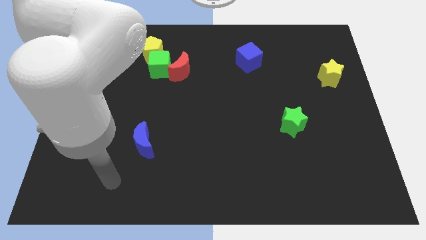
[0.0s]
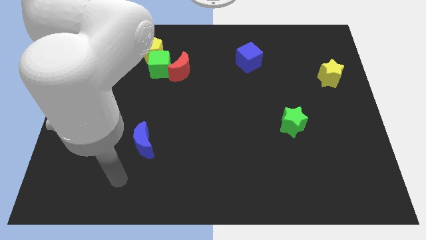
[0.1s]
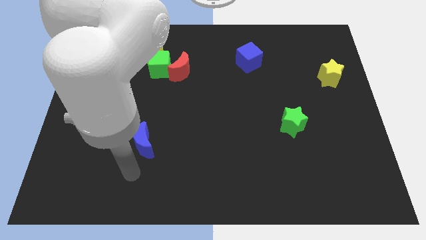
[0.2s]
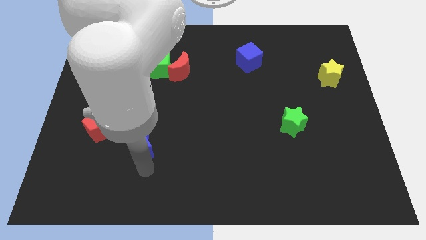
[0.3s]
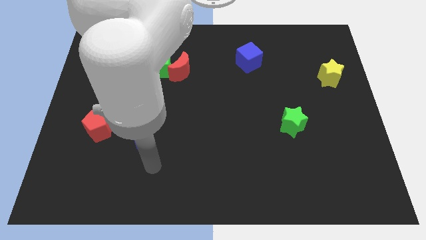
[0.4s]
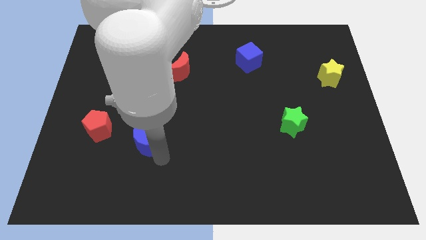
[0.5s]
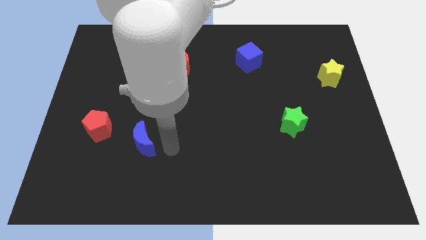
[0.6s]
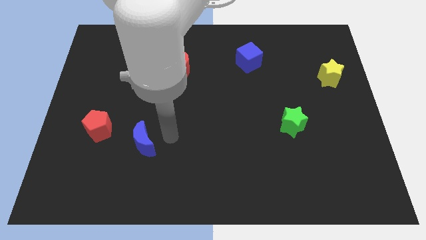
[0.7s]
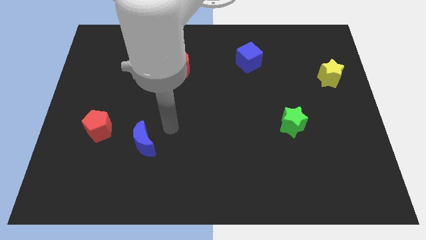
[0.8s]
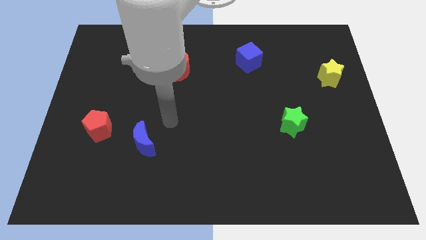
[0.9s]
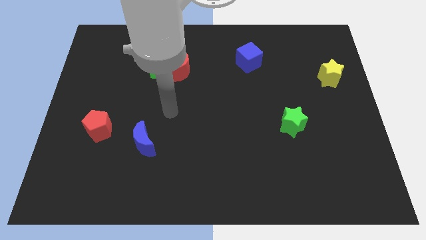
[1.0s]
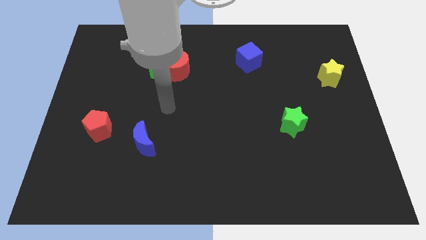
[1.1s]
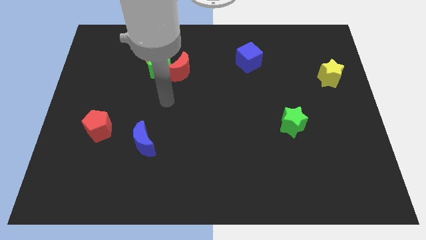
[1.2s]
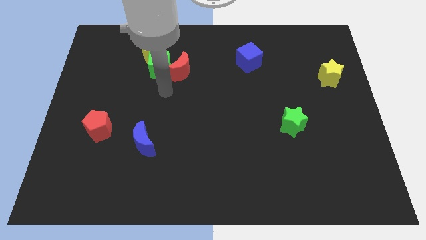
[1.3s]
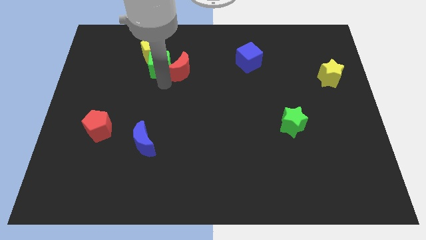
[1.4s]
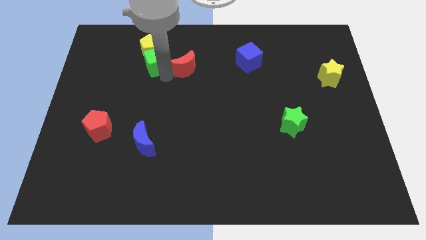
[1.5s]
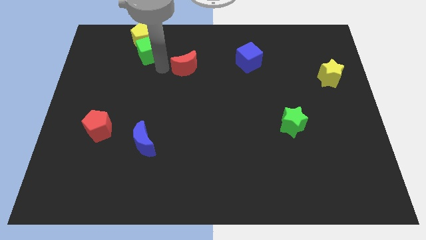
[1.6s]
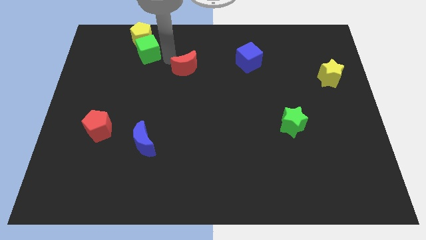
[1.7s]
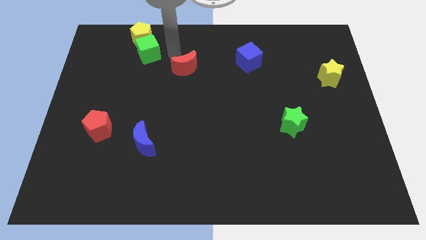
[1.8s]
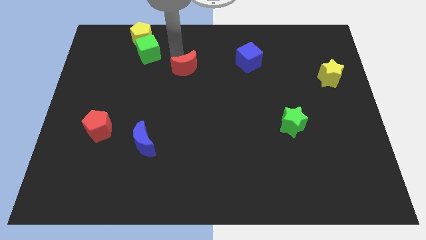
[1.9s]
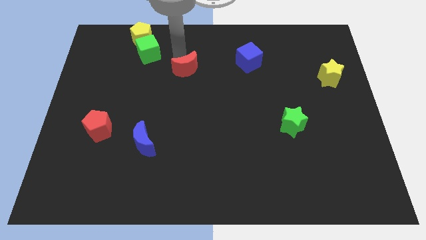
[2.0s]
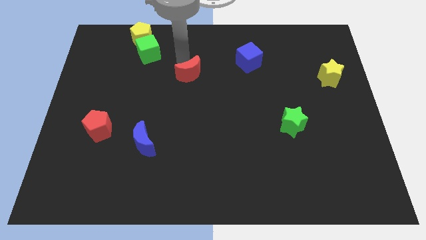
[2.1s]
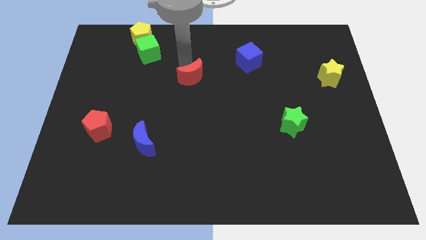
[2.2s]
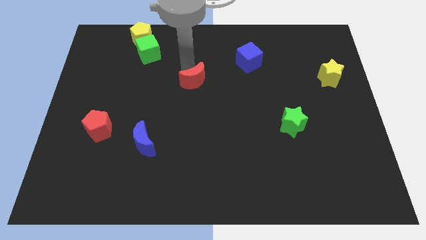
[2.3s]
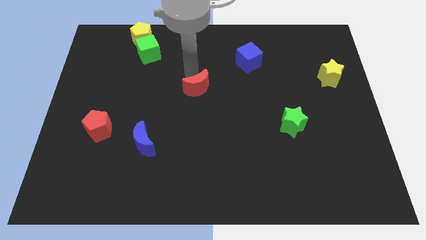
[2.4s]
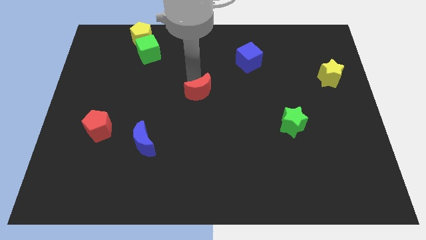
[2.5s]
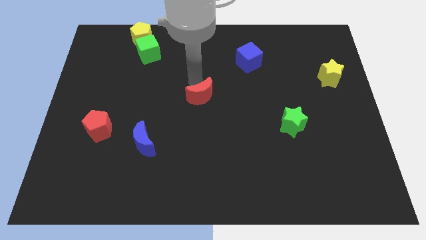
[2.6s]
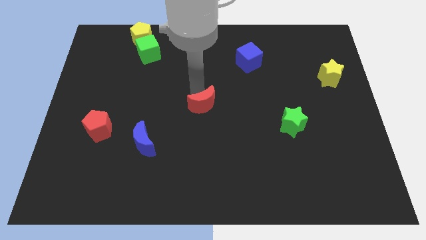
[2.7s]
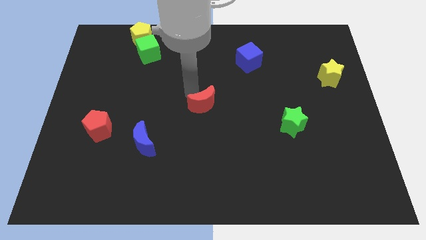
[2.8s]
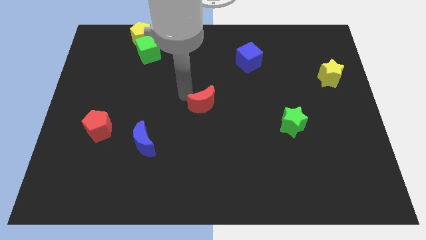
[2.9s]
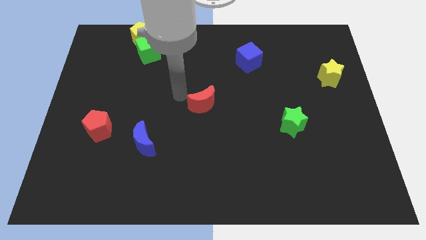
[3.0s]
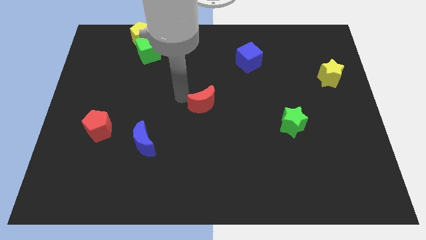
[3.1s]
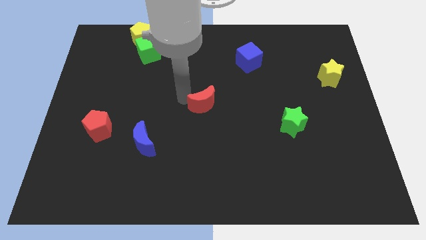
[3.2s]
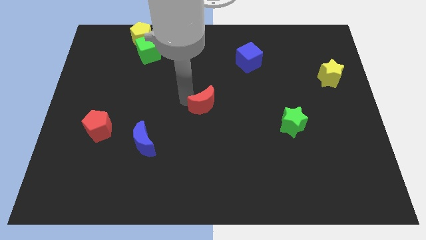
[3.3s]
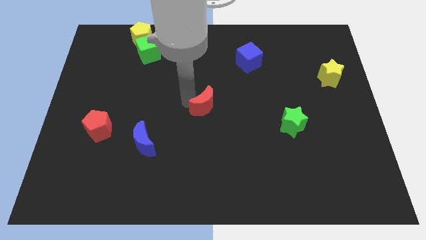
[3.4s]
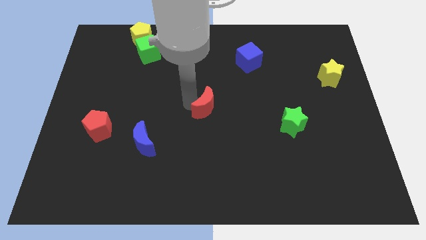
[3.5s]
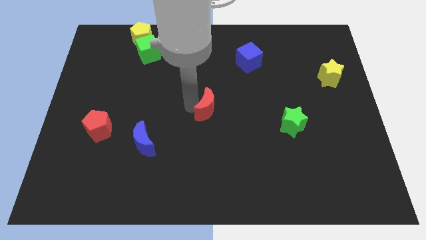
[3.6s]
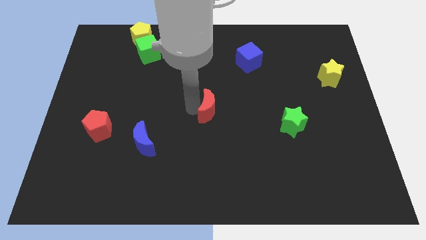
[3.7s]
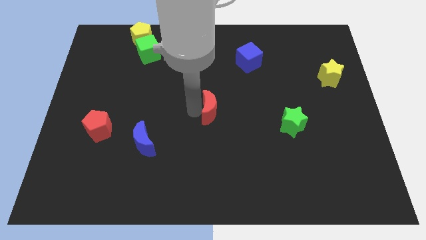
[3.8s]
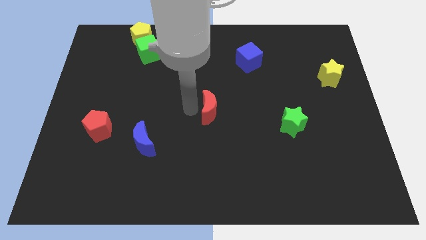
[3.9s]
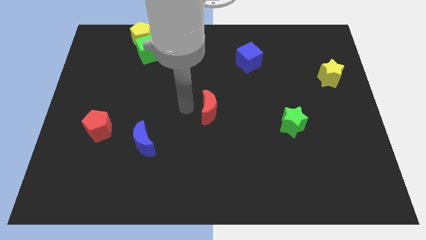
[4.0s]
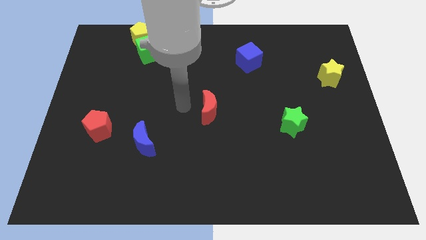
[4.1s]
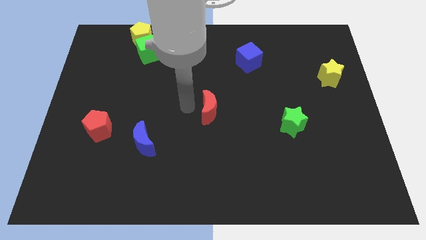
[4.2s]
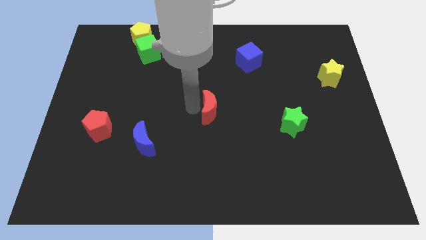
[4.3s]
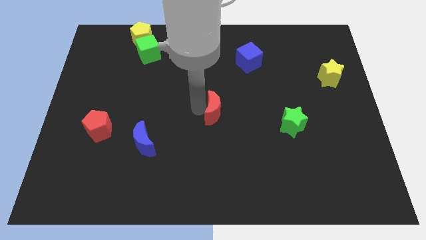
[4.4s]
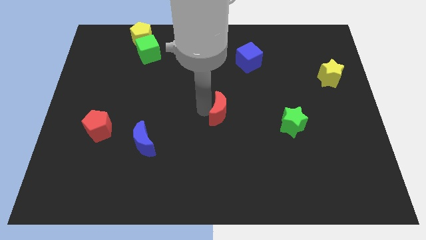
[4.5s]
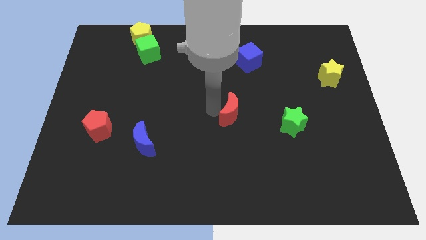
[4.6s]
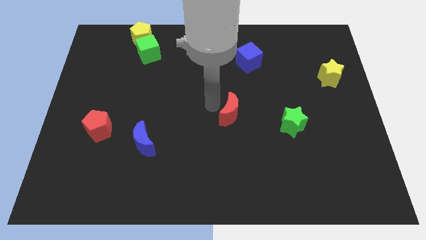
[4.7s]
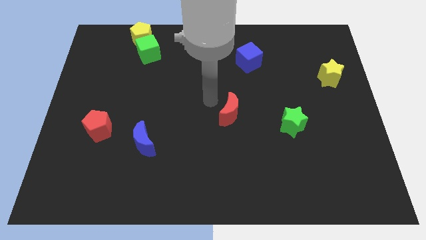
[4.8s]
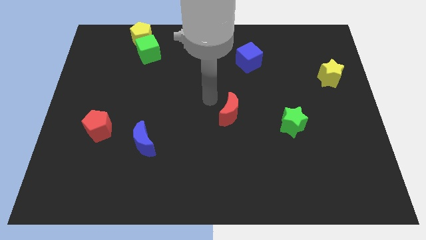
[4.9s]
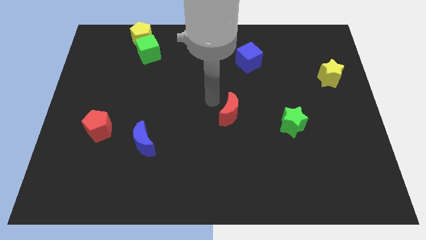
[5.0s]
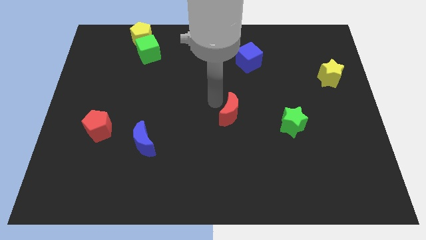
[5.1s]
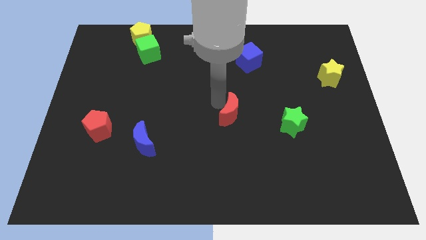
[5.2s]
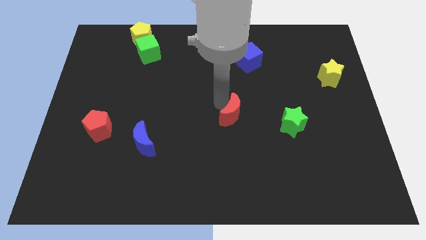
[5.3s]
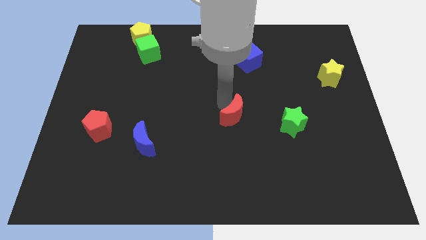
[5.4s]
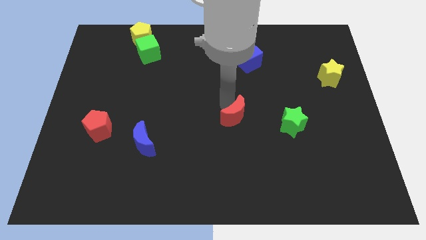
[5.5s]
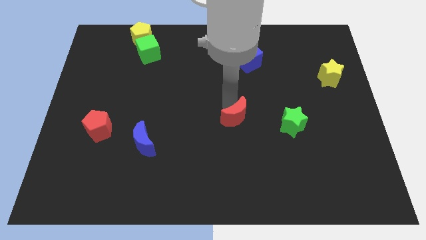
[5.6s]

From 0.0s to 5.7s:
slide the red moon downwards and right

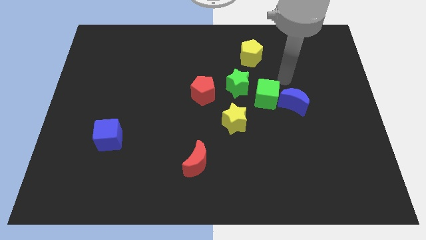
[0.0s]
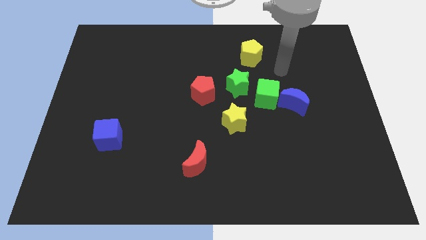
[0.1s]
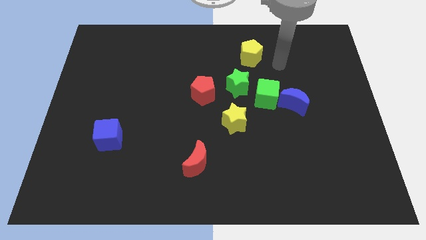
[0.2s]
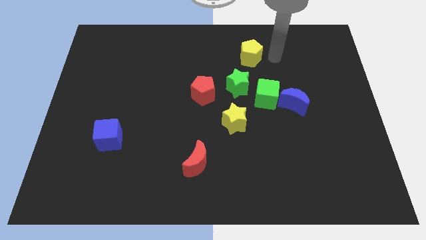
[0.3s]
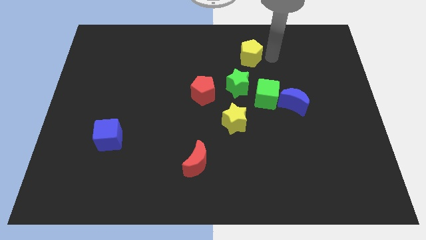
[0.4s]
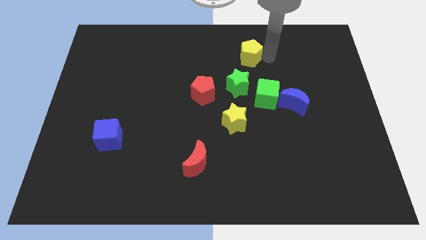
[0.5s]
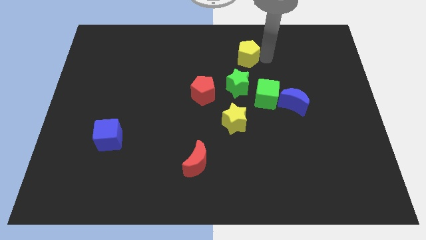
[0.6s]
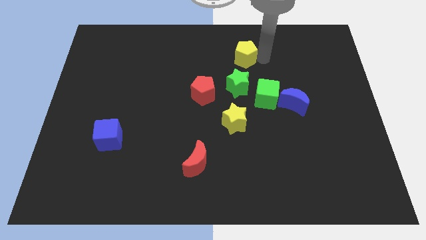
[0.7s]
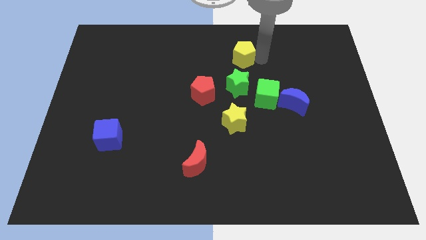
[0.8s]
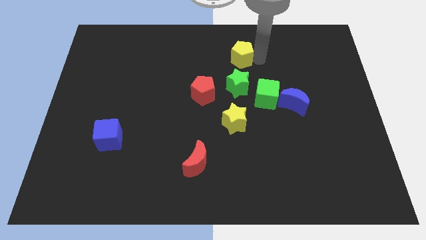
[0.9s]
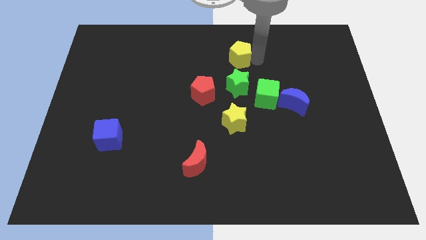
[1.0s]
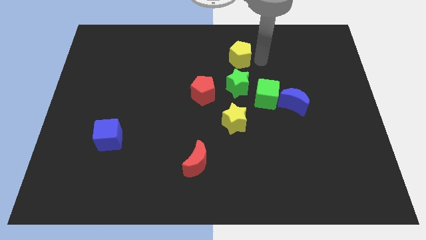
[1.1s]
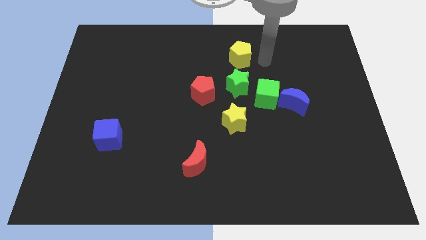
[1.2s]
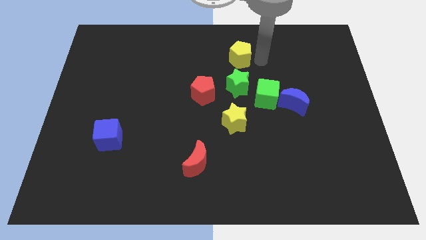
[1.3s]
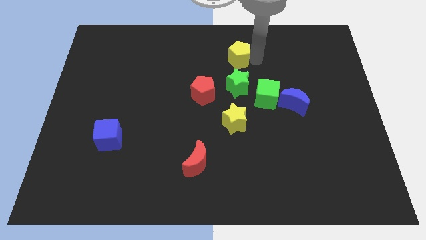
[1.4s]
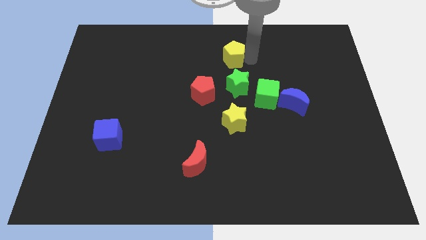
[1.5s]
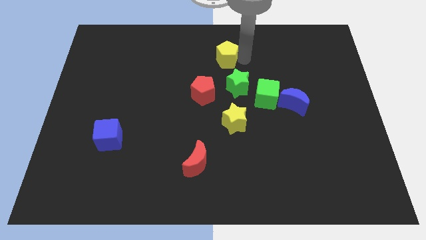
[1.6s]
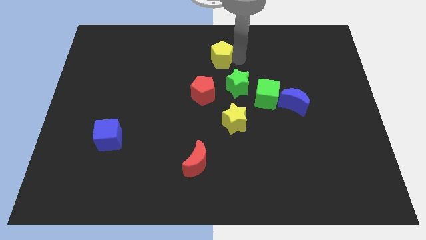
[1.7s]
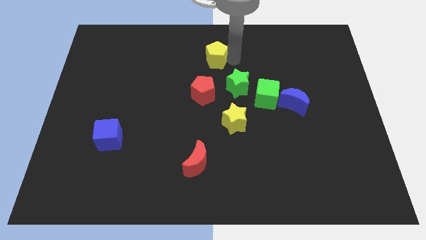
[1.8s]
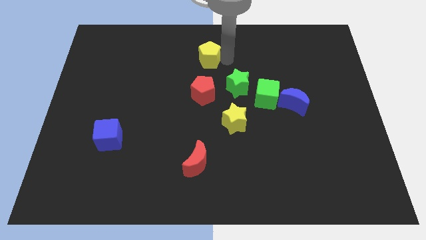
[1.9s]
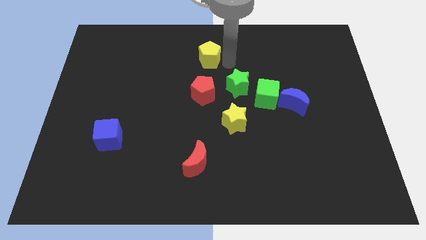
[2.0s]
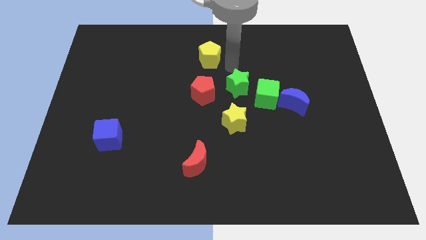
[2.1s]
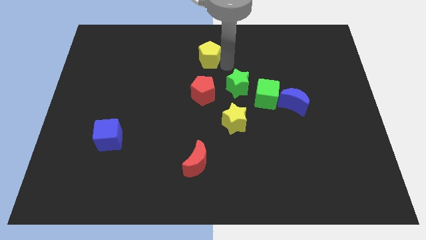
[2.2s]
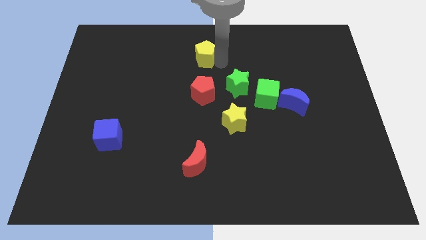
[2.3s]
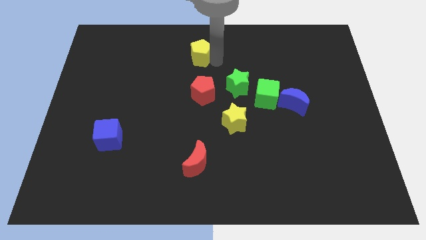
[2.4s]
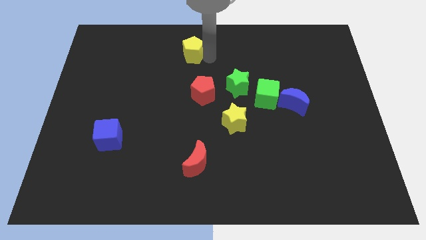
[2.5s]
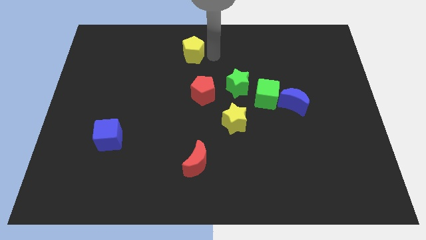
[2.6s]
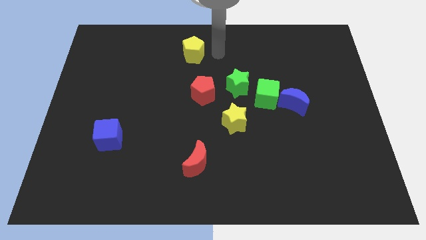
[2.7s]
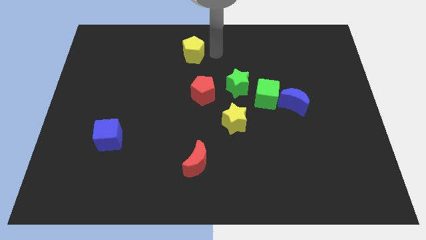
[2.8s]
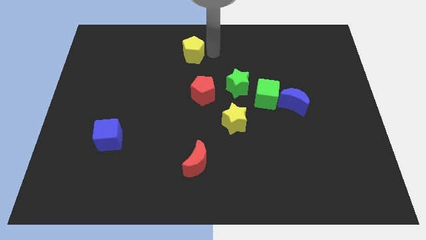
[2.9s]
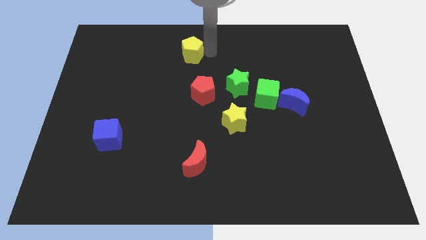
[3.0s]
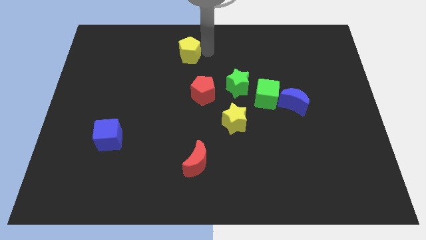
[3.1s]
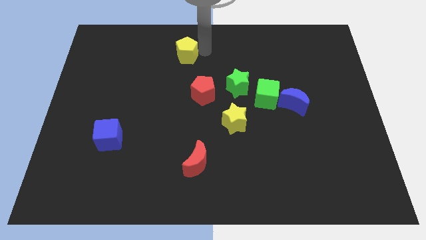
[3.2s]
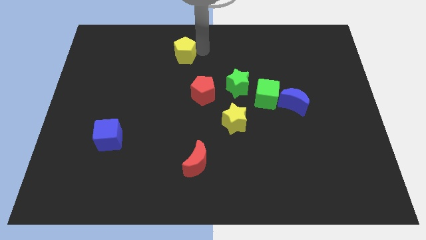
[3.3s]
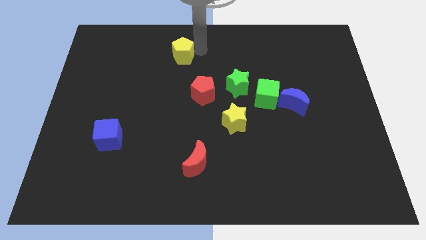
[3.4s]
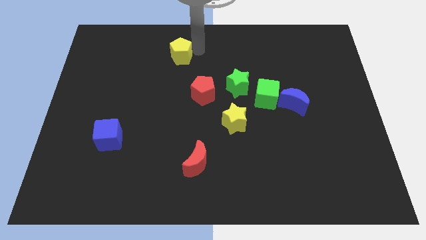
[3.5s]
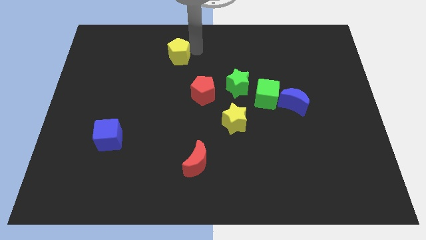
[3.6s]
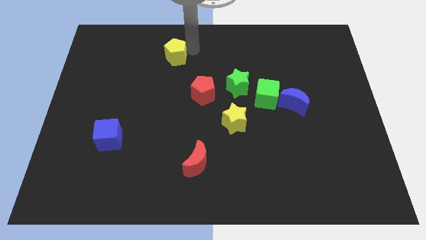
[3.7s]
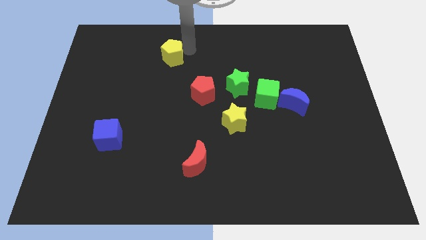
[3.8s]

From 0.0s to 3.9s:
slide the yellow pentagon to the left
